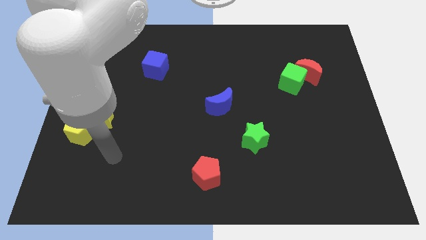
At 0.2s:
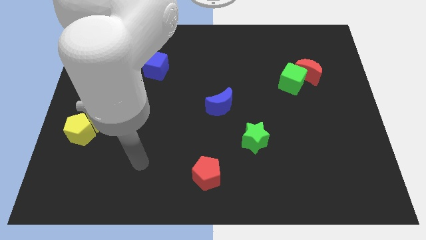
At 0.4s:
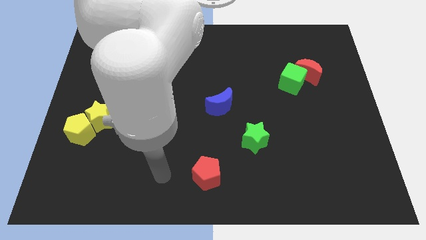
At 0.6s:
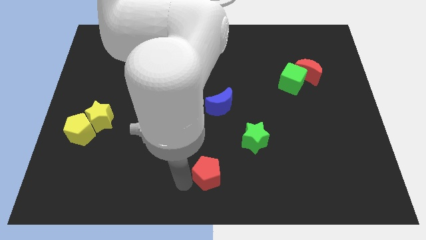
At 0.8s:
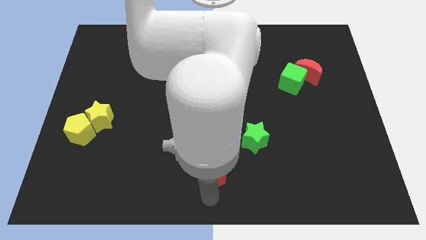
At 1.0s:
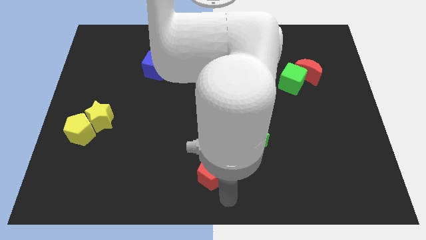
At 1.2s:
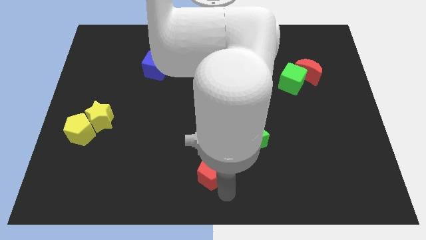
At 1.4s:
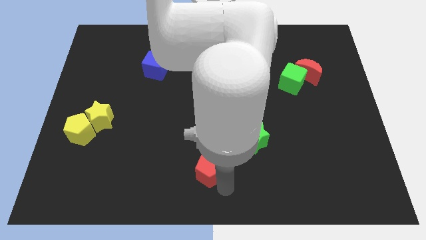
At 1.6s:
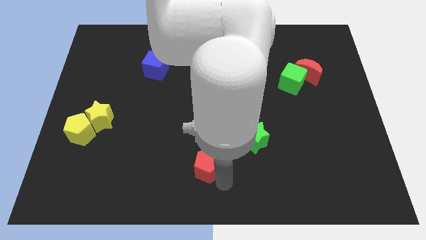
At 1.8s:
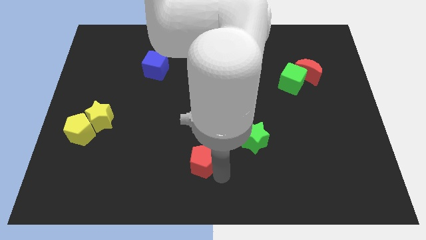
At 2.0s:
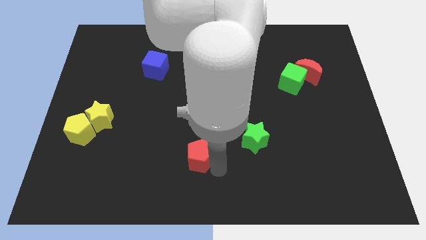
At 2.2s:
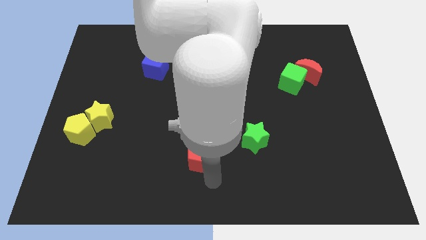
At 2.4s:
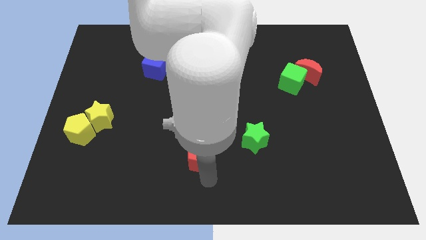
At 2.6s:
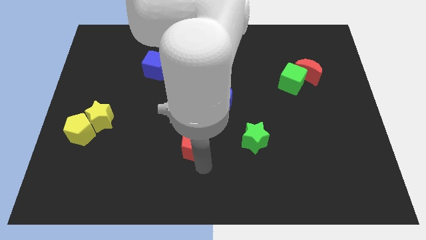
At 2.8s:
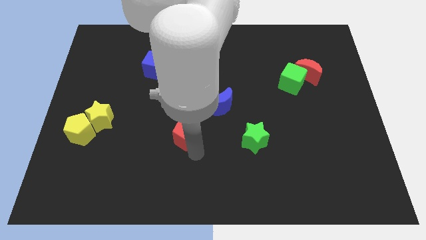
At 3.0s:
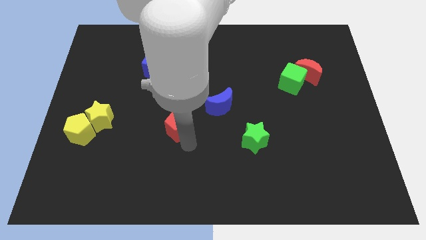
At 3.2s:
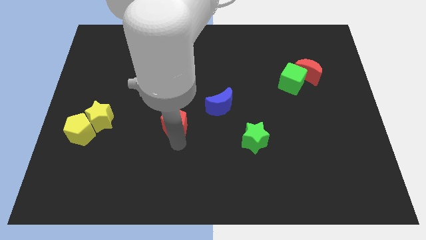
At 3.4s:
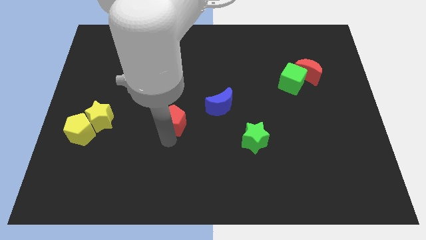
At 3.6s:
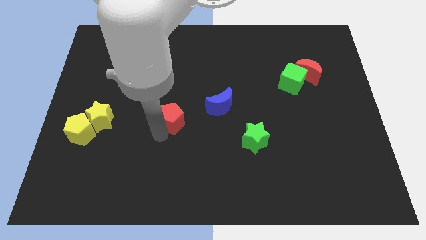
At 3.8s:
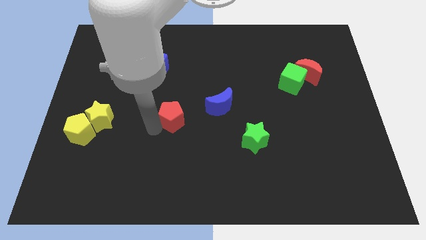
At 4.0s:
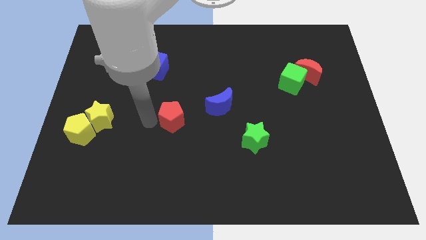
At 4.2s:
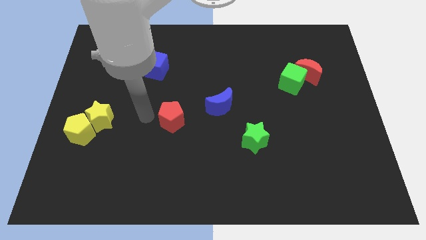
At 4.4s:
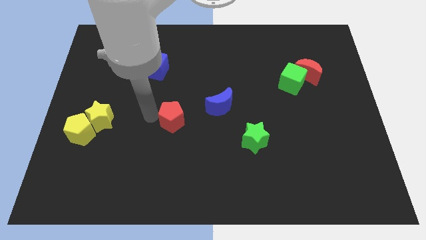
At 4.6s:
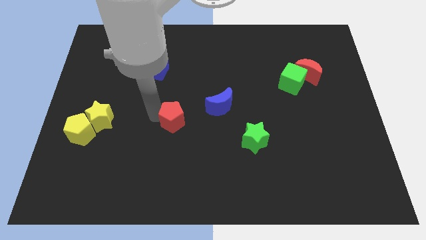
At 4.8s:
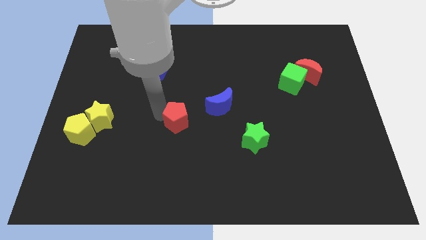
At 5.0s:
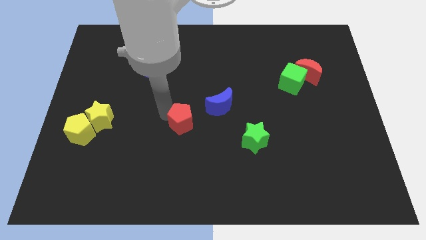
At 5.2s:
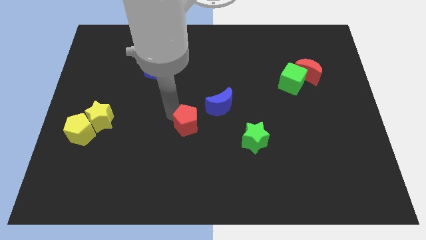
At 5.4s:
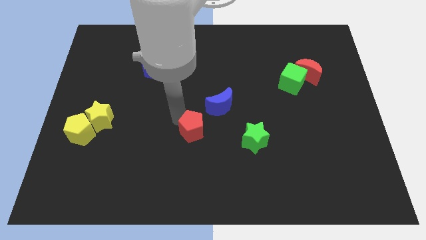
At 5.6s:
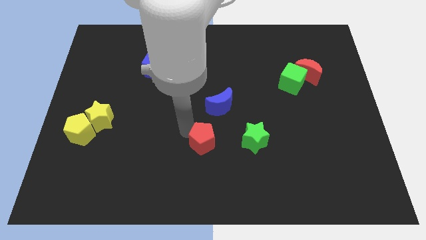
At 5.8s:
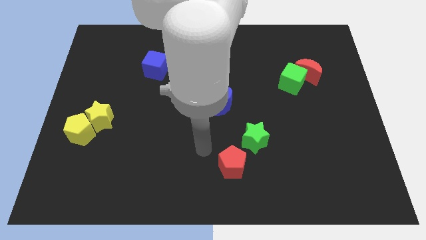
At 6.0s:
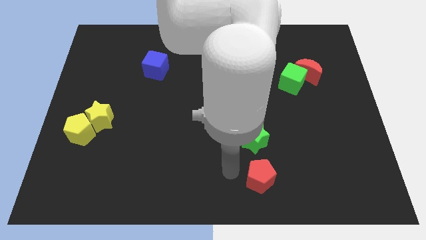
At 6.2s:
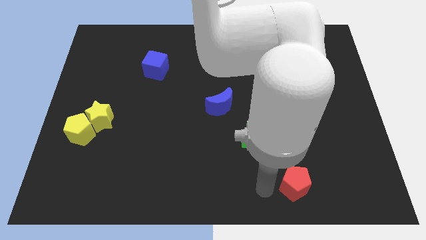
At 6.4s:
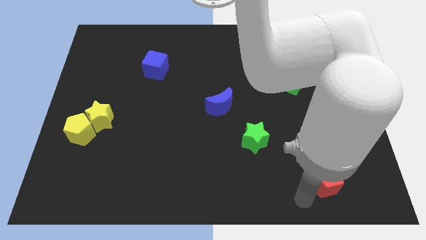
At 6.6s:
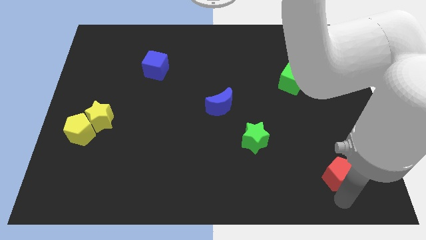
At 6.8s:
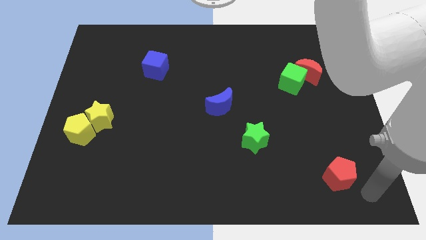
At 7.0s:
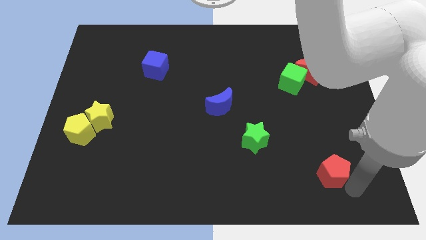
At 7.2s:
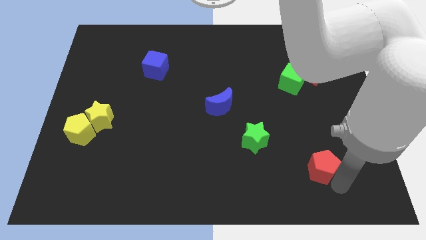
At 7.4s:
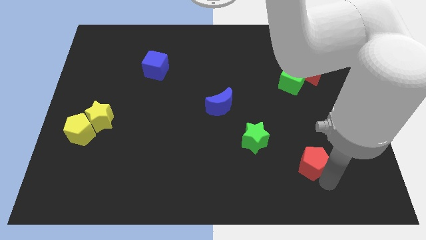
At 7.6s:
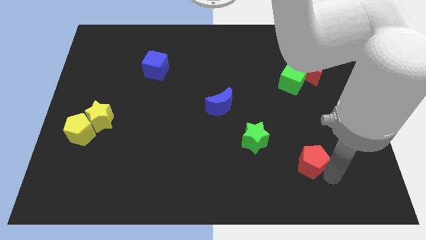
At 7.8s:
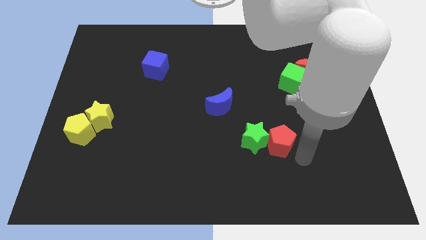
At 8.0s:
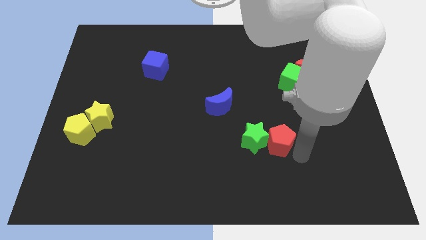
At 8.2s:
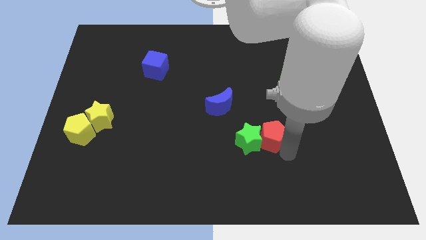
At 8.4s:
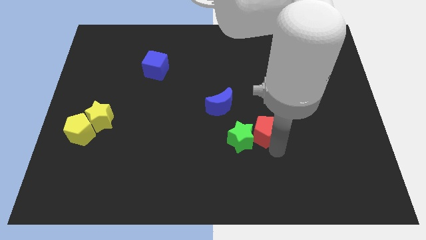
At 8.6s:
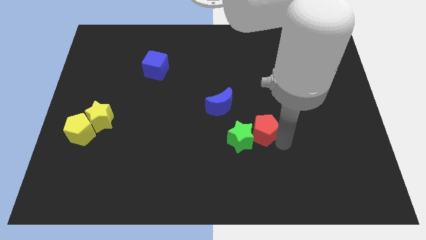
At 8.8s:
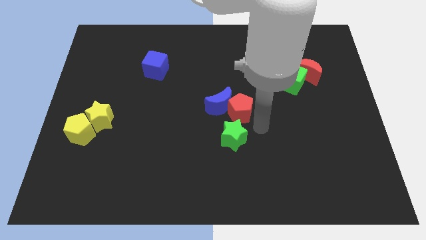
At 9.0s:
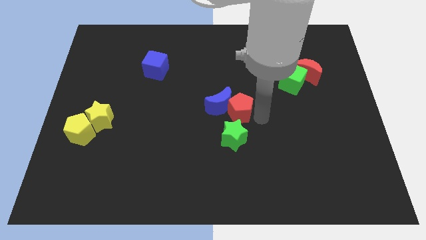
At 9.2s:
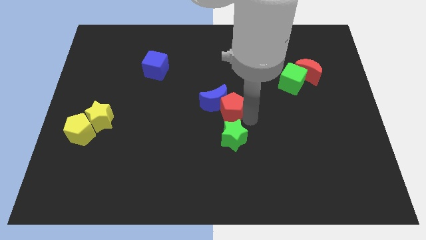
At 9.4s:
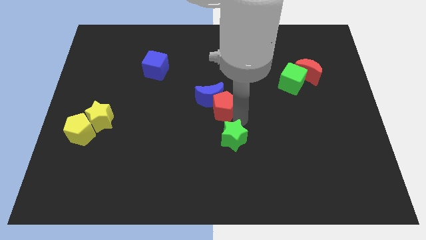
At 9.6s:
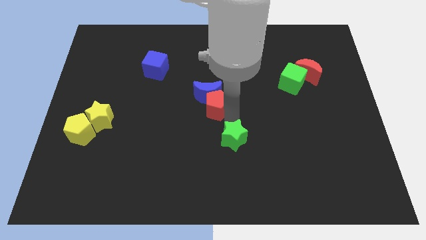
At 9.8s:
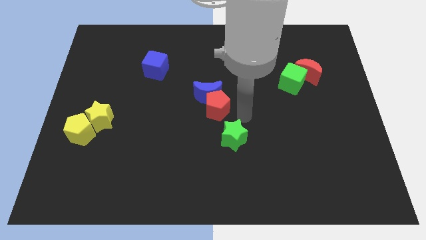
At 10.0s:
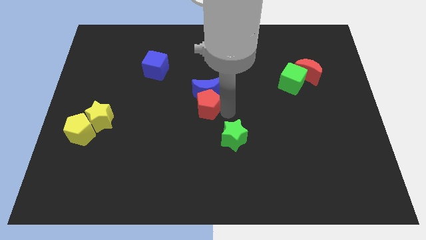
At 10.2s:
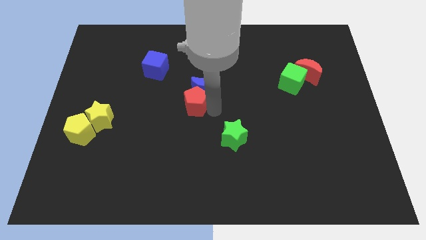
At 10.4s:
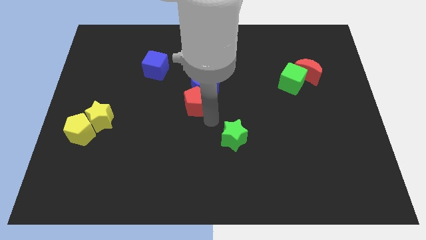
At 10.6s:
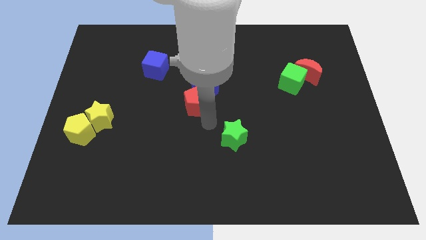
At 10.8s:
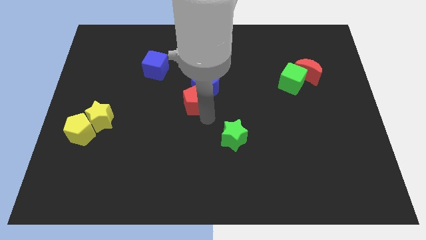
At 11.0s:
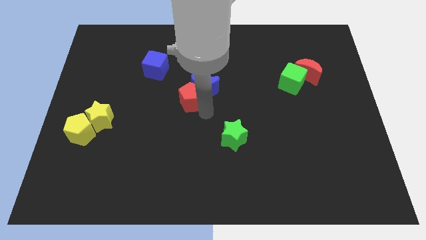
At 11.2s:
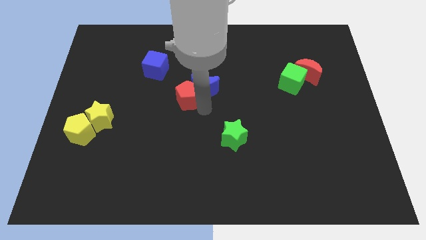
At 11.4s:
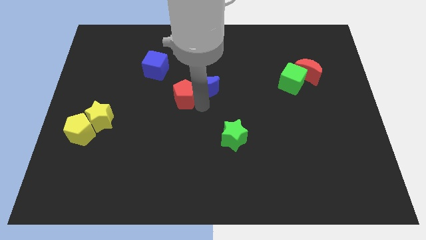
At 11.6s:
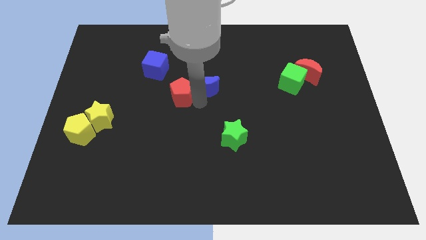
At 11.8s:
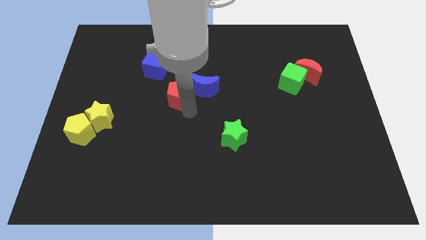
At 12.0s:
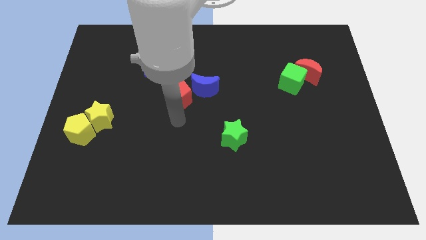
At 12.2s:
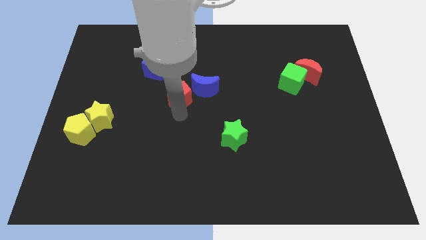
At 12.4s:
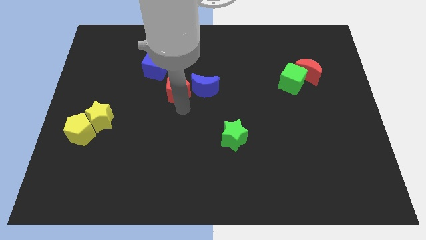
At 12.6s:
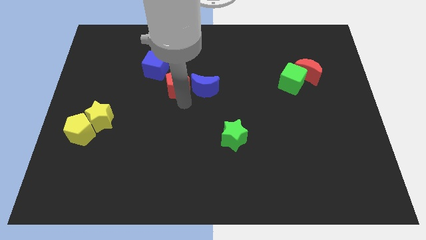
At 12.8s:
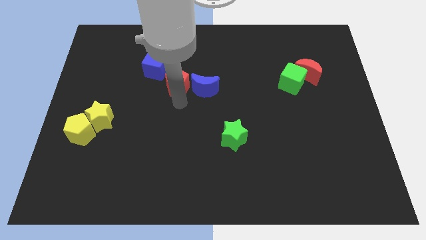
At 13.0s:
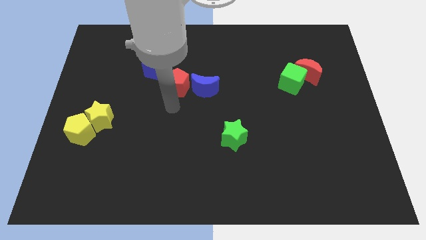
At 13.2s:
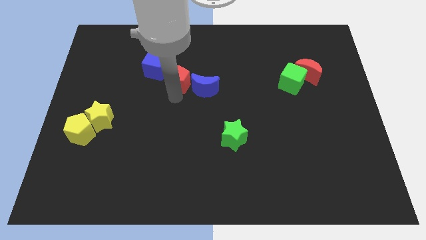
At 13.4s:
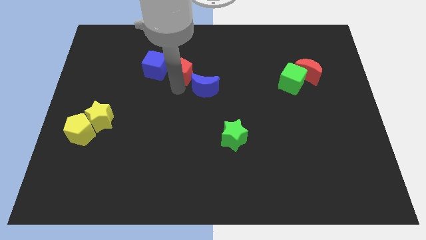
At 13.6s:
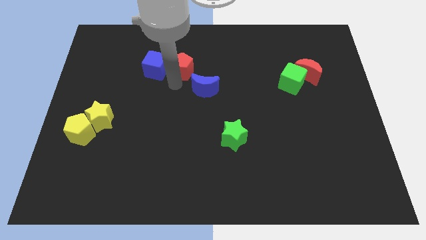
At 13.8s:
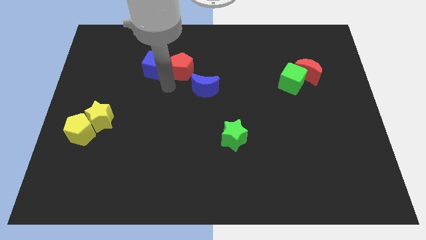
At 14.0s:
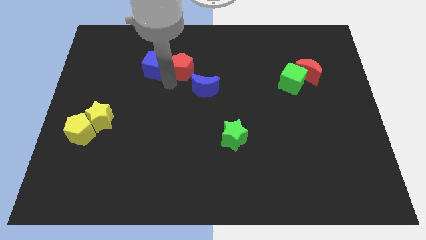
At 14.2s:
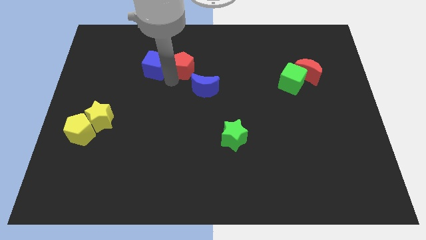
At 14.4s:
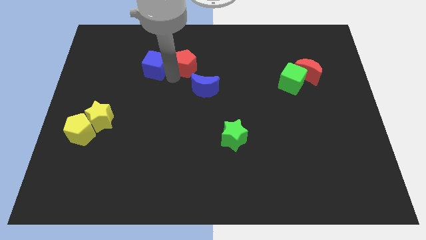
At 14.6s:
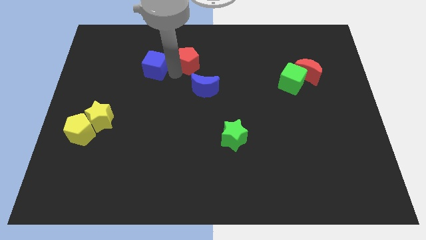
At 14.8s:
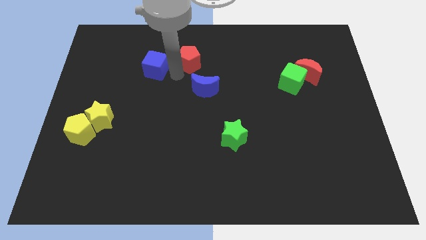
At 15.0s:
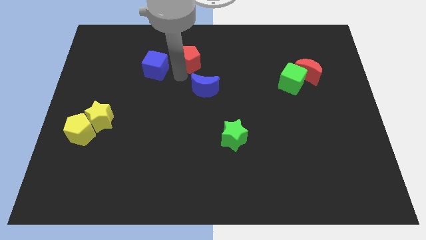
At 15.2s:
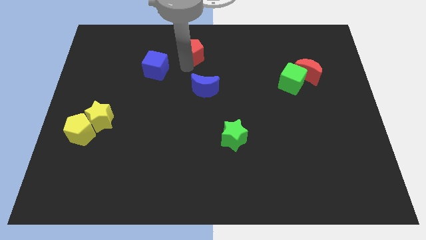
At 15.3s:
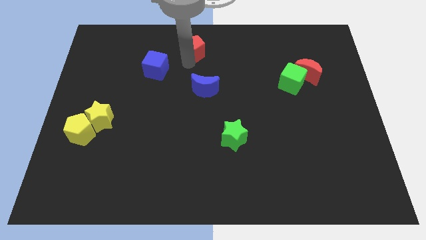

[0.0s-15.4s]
push the red pentagon to the towards your base
